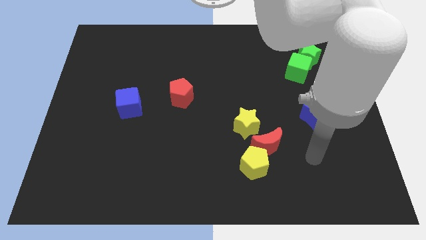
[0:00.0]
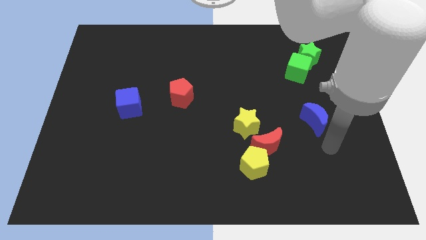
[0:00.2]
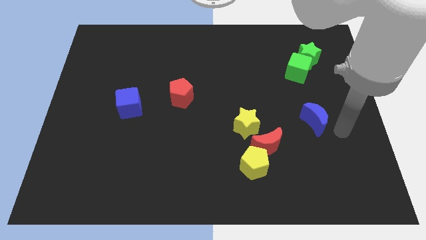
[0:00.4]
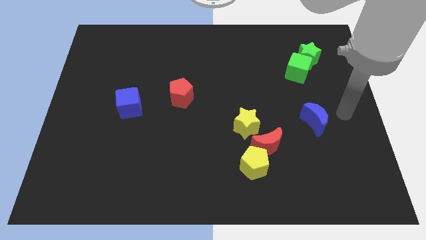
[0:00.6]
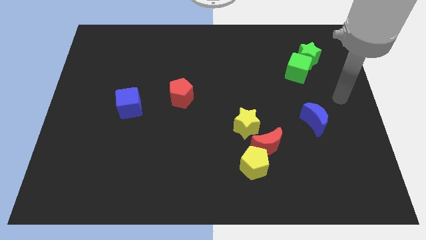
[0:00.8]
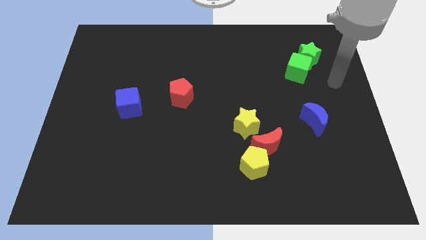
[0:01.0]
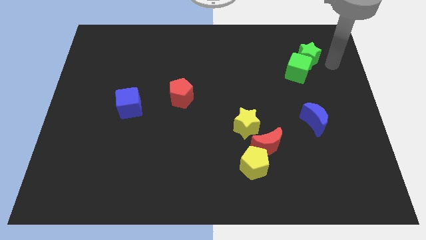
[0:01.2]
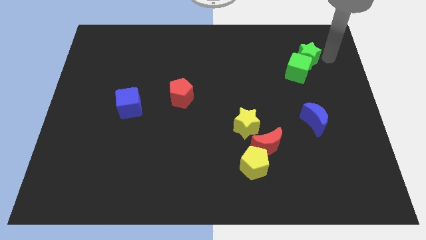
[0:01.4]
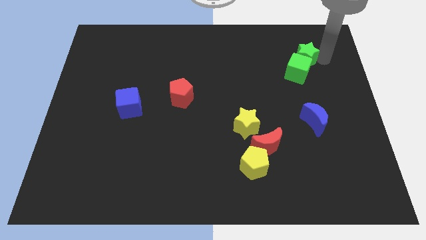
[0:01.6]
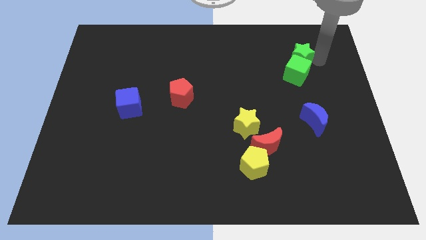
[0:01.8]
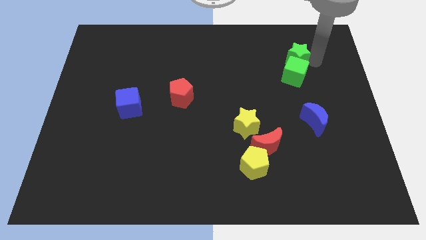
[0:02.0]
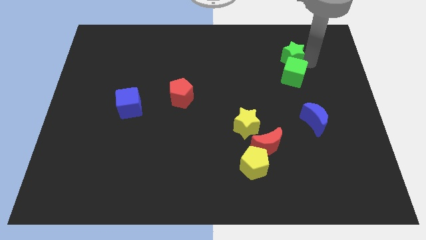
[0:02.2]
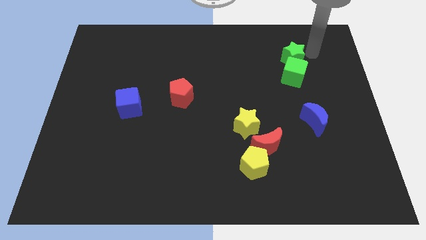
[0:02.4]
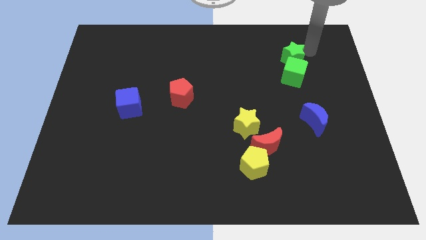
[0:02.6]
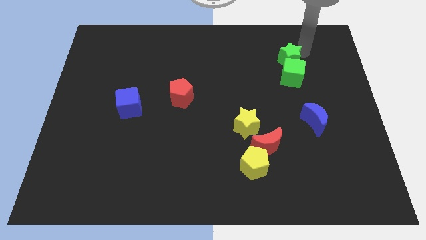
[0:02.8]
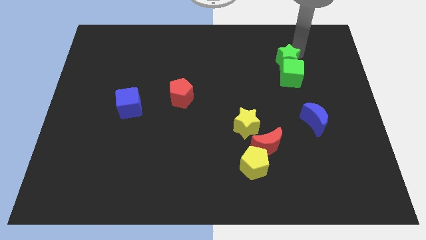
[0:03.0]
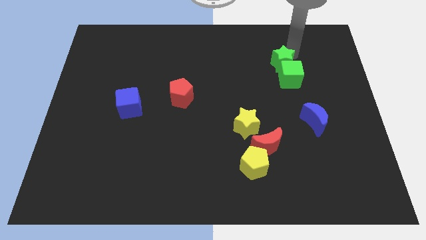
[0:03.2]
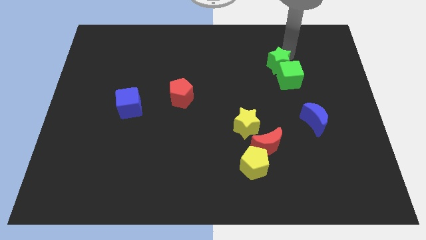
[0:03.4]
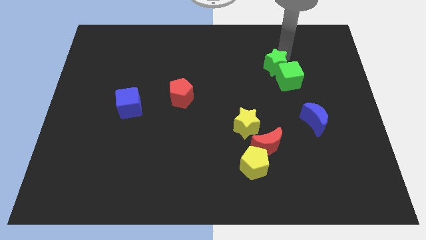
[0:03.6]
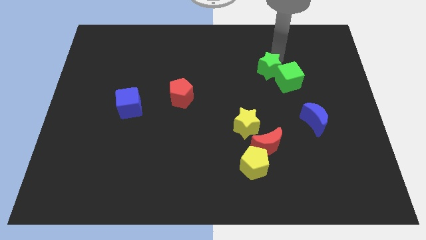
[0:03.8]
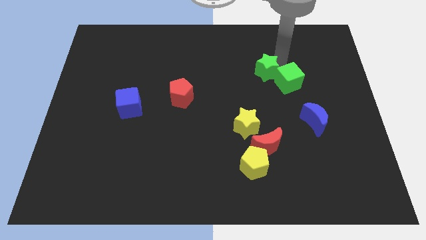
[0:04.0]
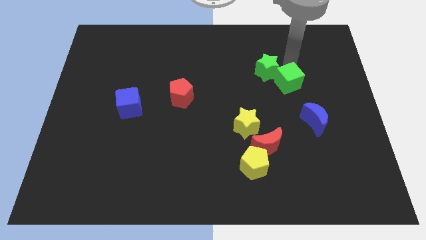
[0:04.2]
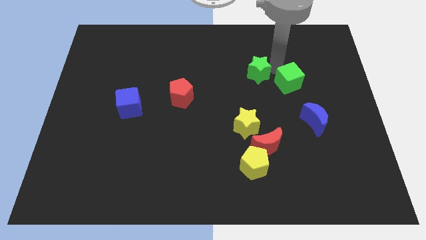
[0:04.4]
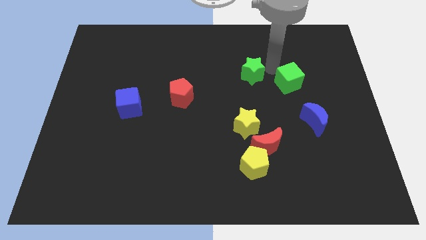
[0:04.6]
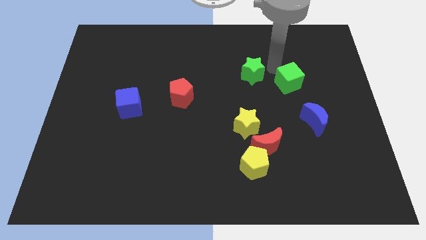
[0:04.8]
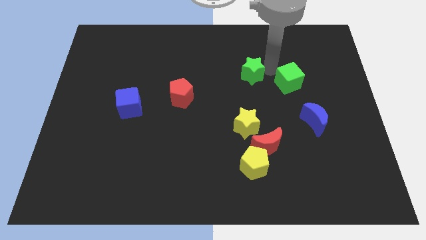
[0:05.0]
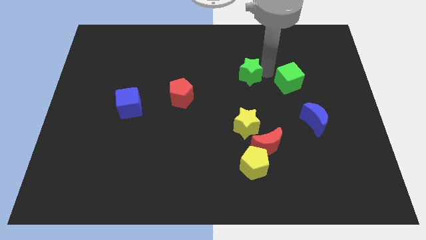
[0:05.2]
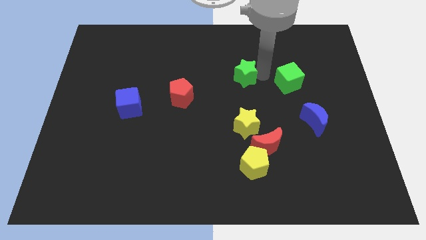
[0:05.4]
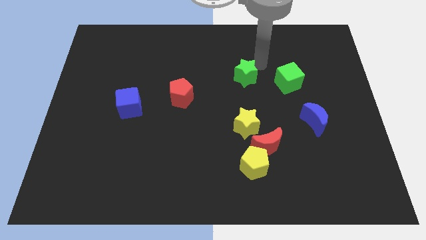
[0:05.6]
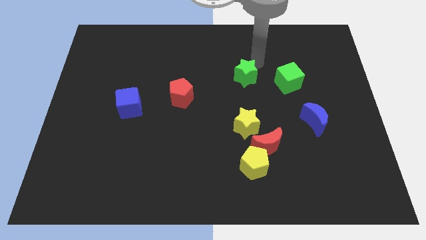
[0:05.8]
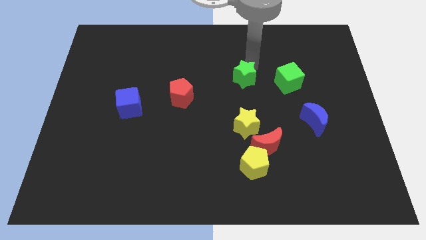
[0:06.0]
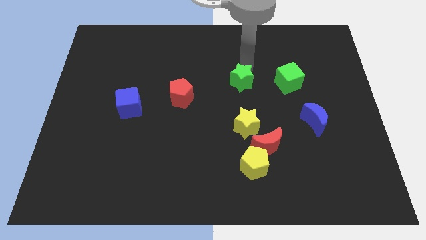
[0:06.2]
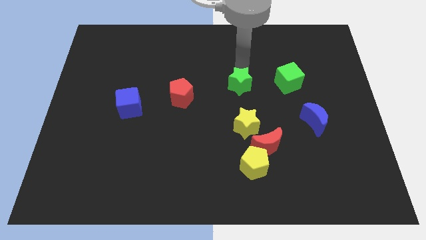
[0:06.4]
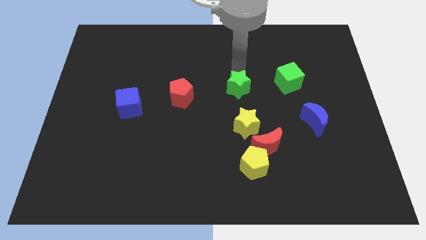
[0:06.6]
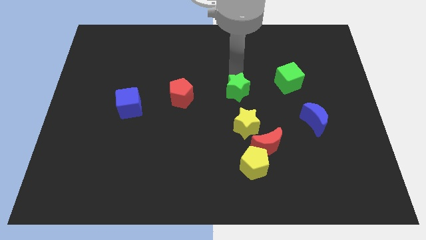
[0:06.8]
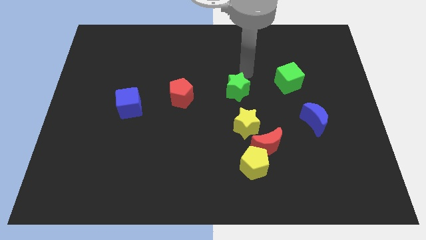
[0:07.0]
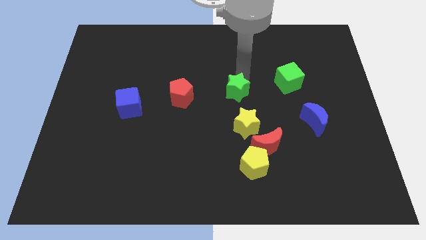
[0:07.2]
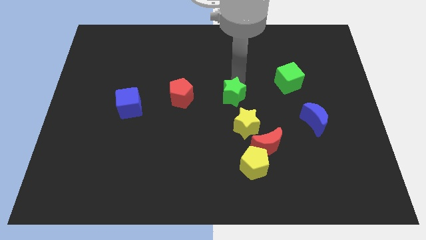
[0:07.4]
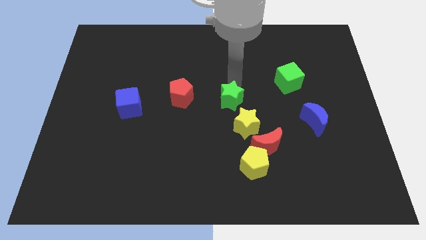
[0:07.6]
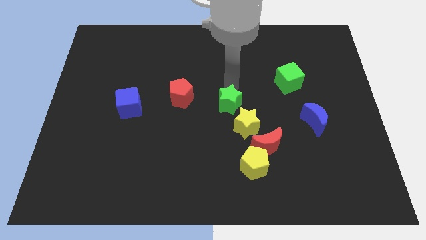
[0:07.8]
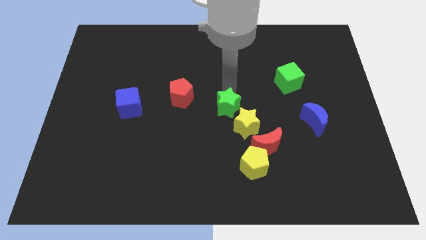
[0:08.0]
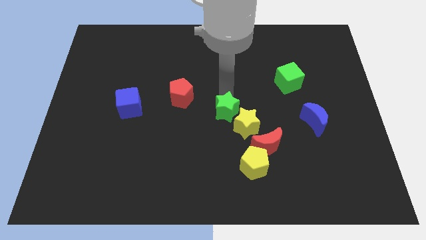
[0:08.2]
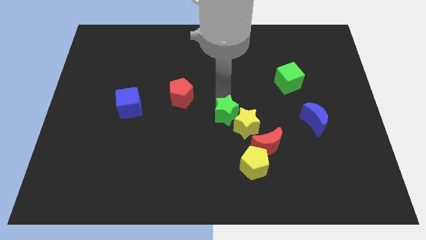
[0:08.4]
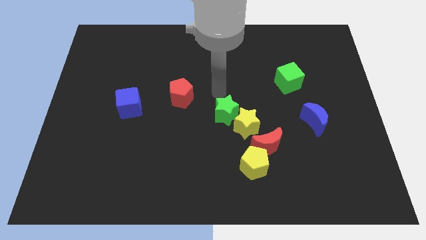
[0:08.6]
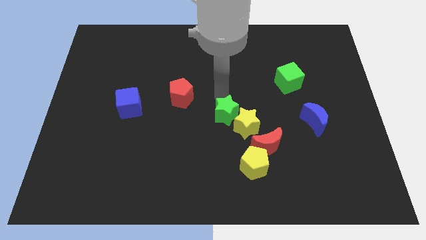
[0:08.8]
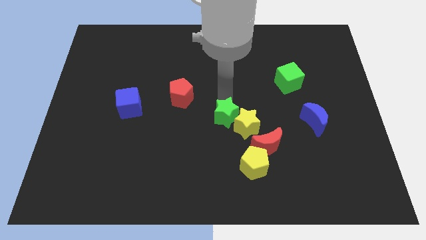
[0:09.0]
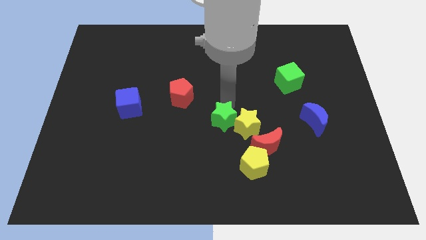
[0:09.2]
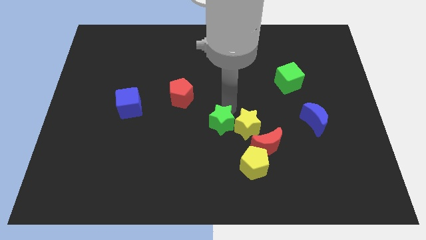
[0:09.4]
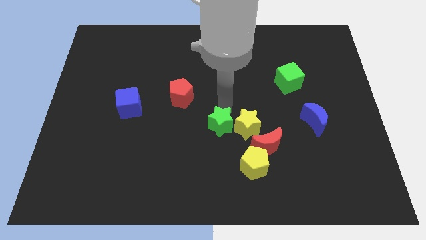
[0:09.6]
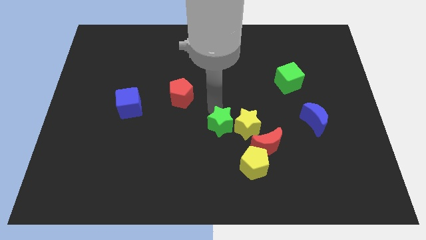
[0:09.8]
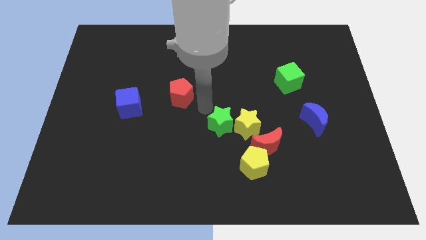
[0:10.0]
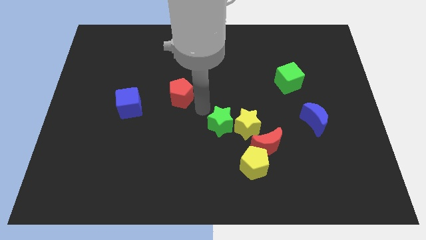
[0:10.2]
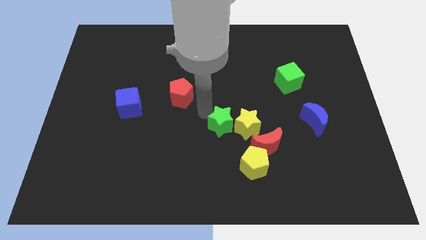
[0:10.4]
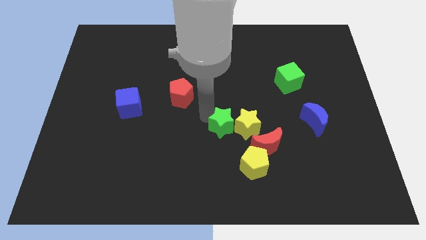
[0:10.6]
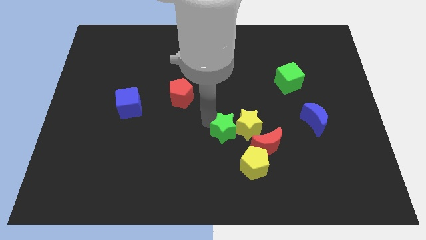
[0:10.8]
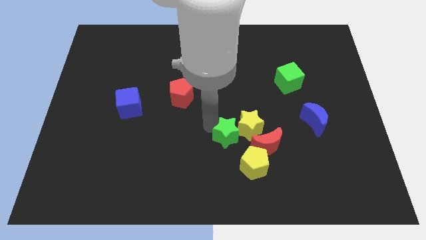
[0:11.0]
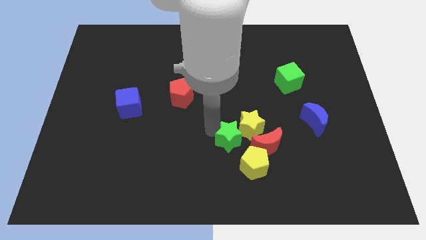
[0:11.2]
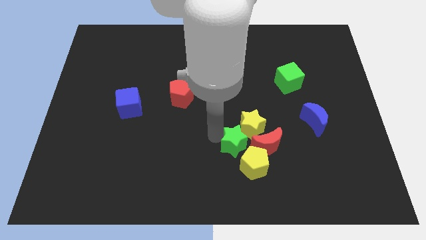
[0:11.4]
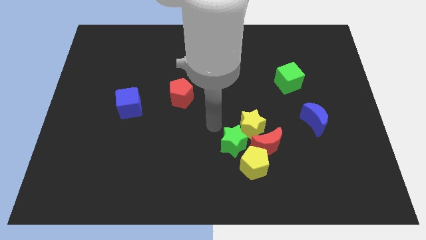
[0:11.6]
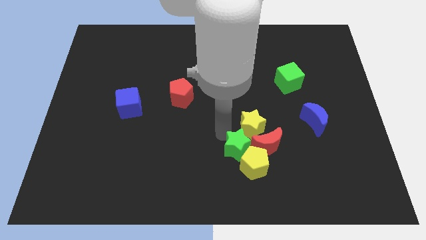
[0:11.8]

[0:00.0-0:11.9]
slide the green star towards the yellow pentagon
